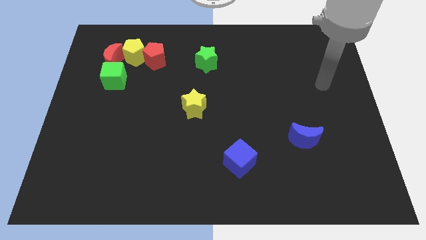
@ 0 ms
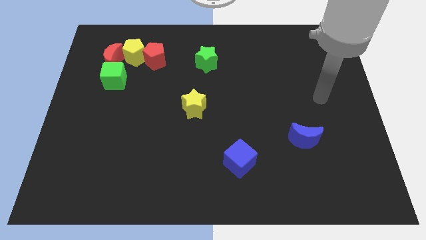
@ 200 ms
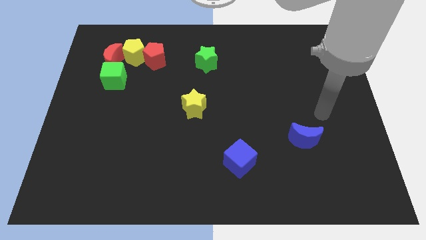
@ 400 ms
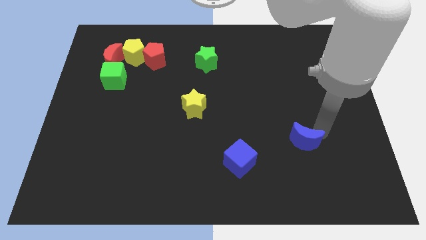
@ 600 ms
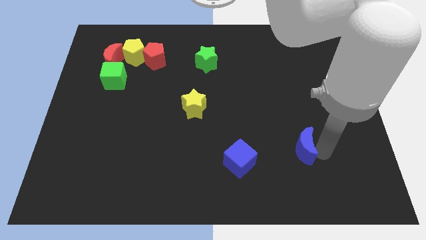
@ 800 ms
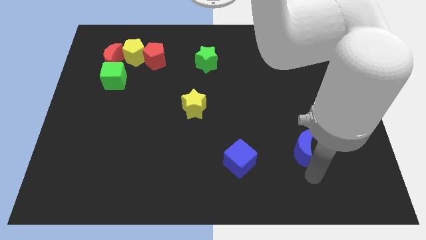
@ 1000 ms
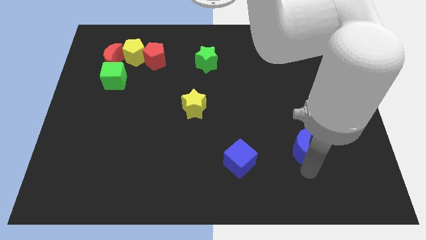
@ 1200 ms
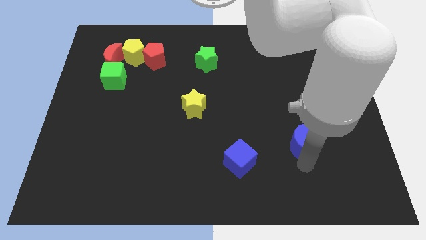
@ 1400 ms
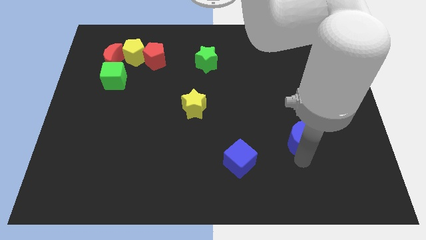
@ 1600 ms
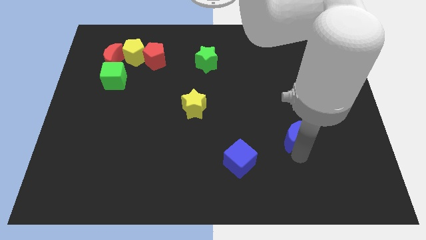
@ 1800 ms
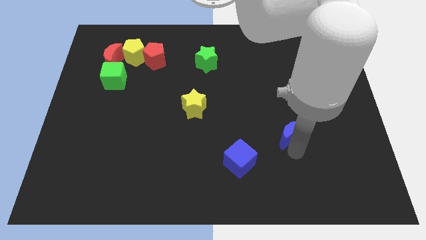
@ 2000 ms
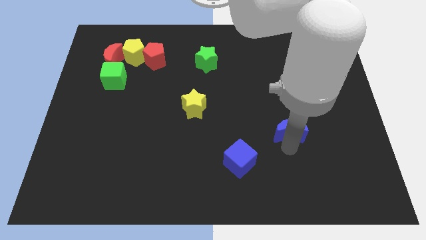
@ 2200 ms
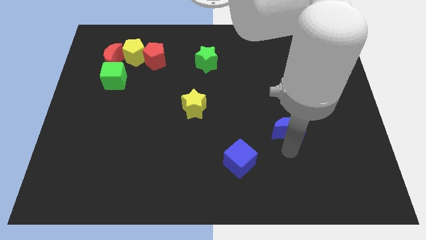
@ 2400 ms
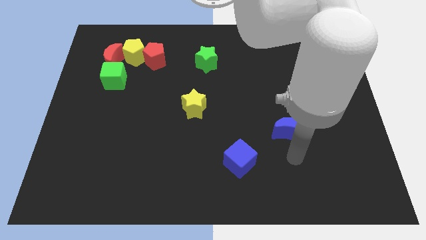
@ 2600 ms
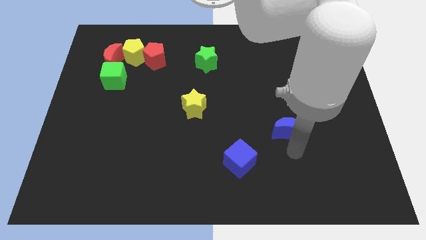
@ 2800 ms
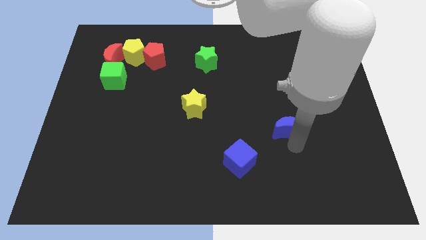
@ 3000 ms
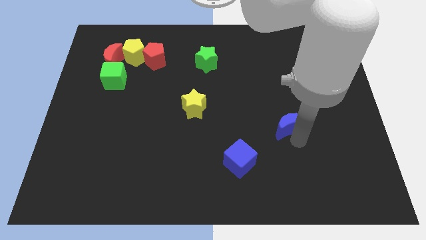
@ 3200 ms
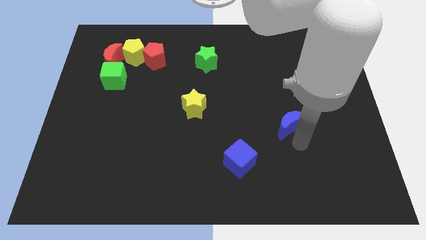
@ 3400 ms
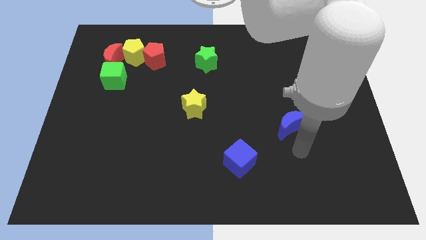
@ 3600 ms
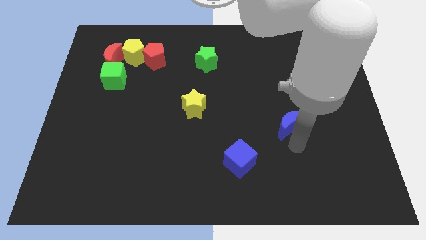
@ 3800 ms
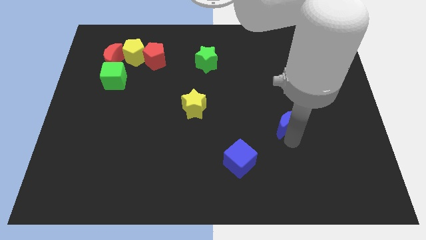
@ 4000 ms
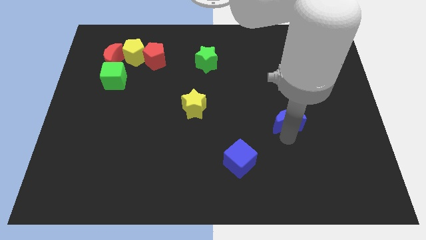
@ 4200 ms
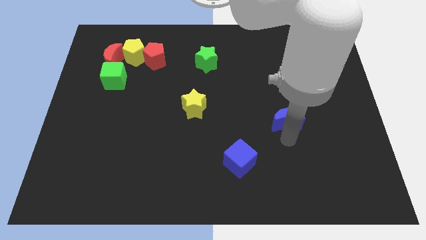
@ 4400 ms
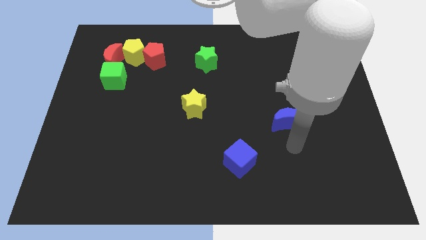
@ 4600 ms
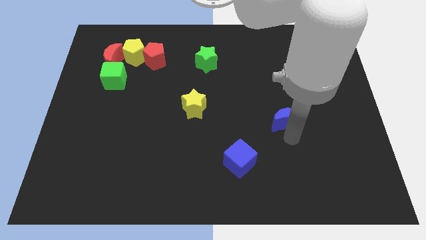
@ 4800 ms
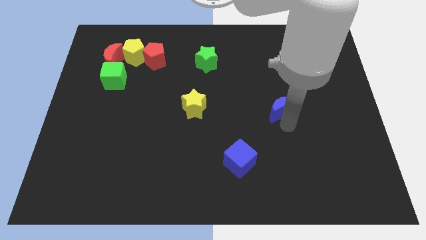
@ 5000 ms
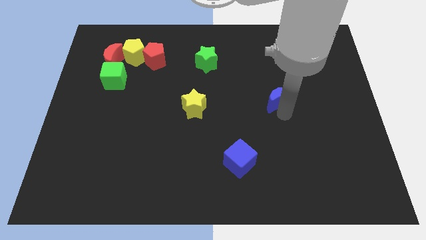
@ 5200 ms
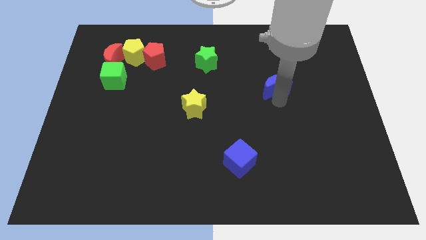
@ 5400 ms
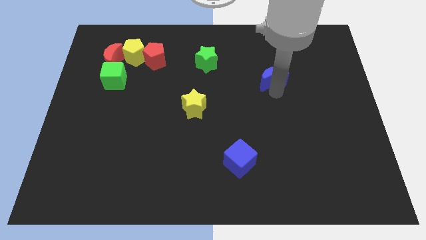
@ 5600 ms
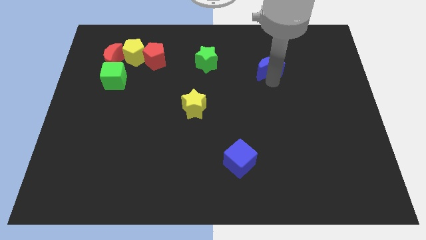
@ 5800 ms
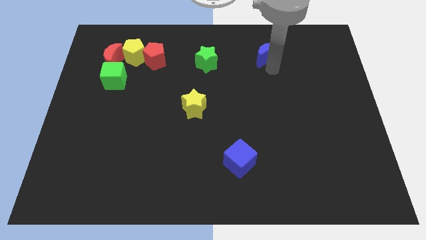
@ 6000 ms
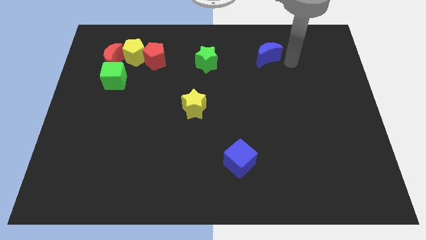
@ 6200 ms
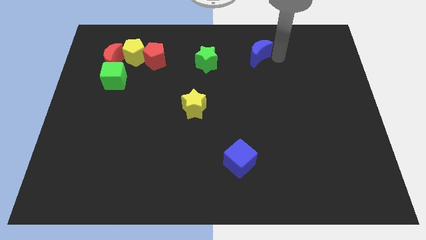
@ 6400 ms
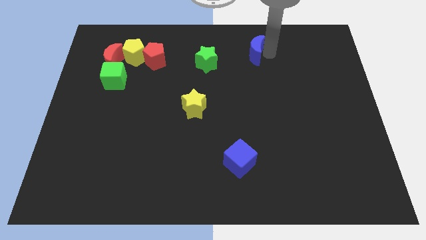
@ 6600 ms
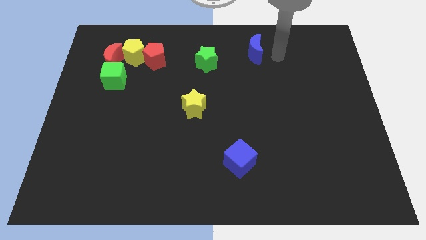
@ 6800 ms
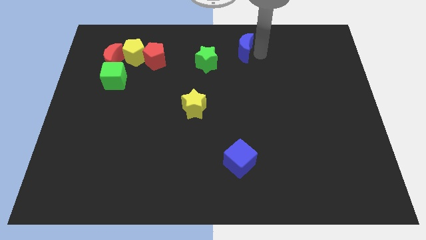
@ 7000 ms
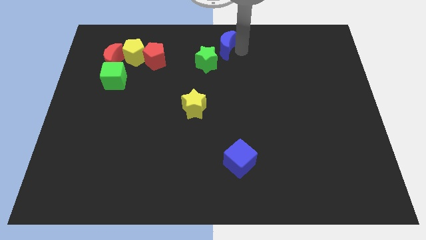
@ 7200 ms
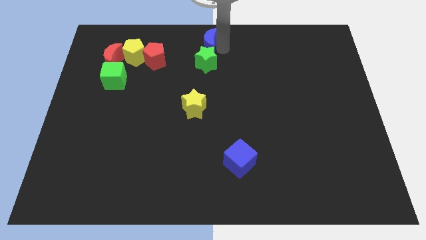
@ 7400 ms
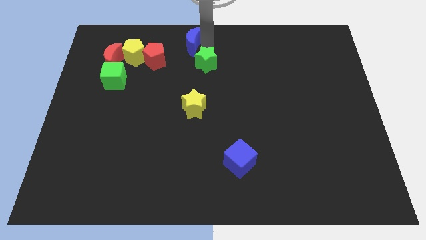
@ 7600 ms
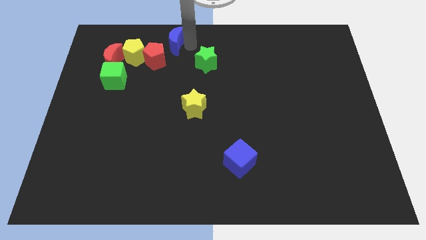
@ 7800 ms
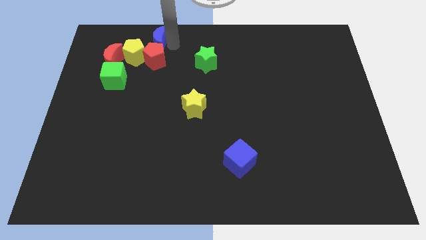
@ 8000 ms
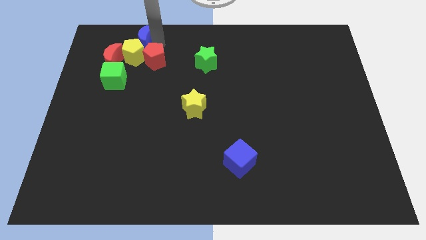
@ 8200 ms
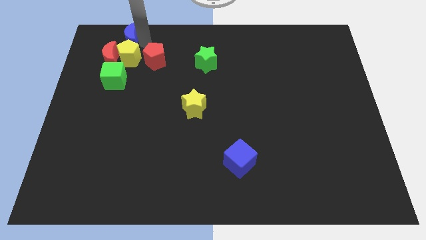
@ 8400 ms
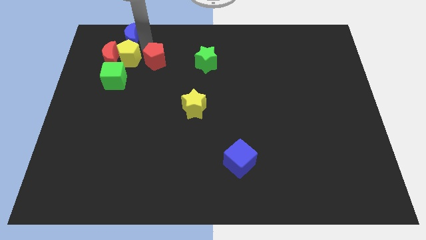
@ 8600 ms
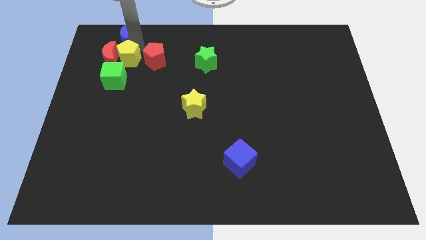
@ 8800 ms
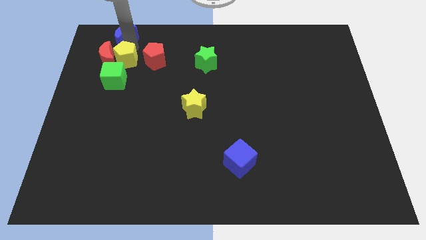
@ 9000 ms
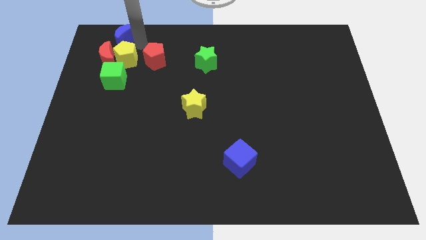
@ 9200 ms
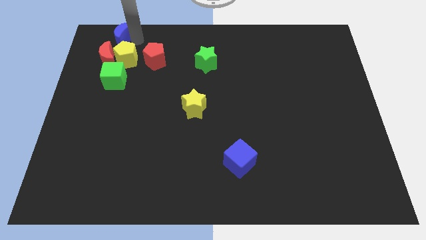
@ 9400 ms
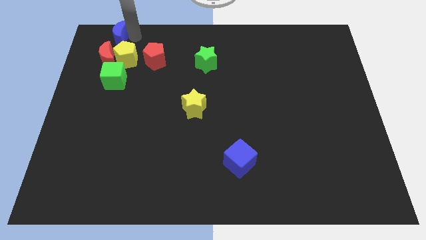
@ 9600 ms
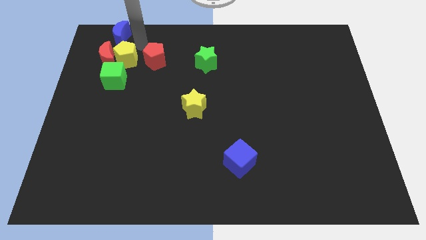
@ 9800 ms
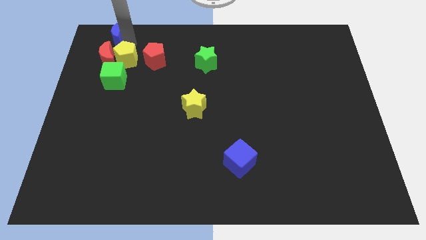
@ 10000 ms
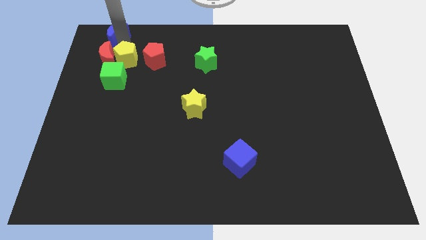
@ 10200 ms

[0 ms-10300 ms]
slide the blue moon to the upper left corner

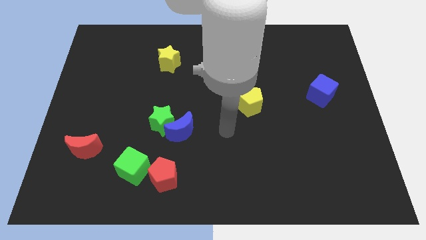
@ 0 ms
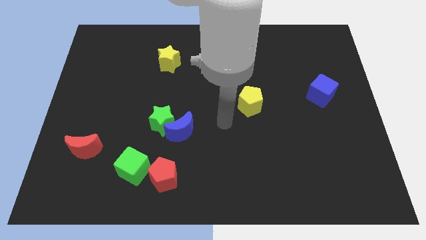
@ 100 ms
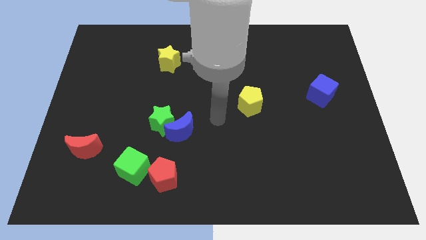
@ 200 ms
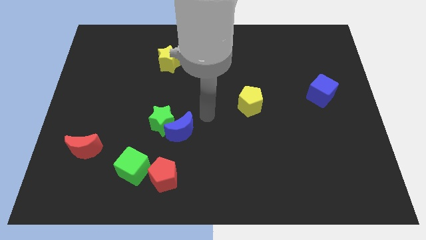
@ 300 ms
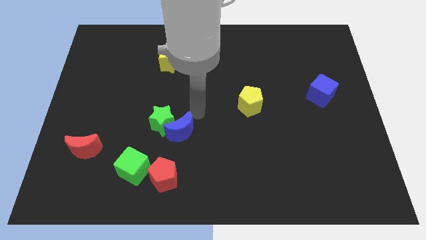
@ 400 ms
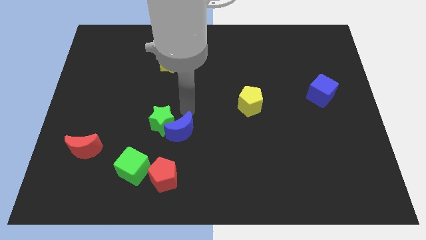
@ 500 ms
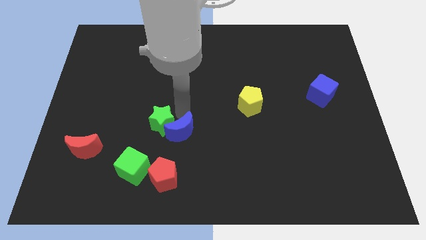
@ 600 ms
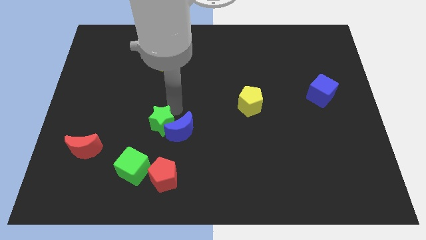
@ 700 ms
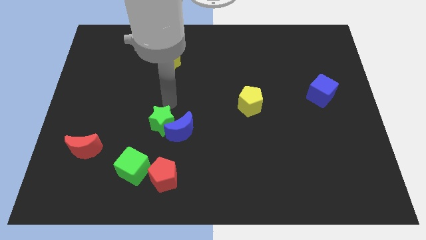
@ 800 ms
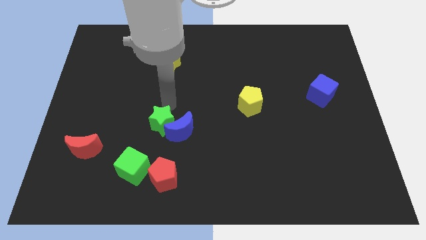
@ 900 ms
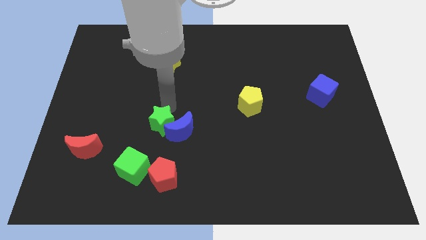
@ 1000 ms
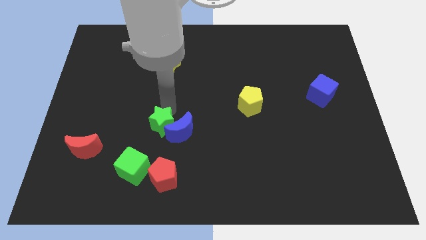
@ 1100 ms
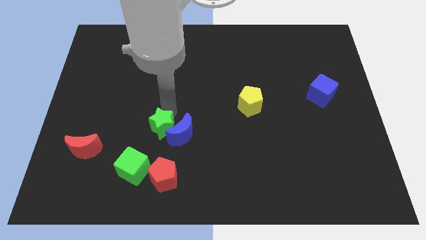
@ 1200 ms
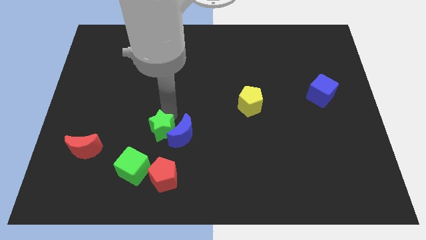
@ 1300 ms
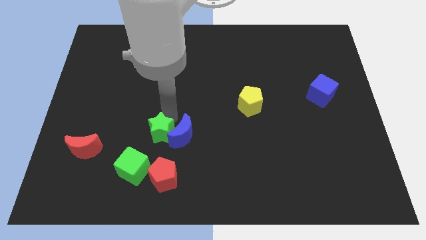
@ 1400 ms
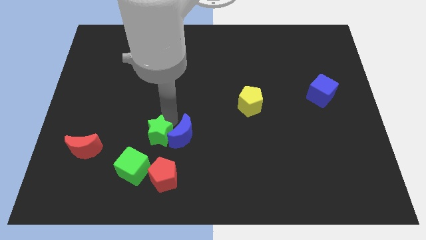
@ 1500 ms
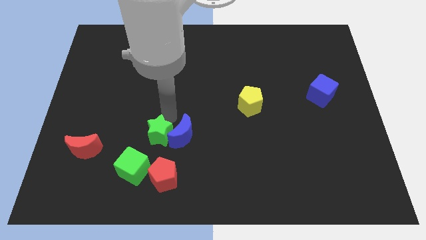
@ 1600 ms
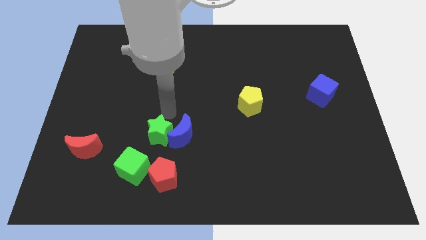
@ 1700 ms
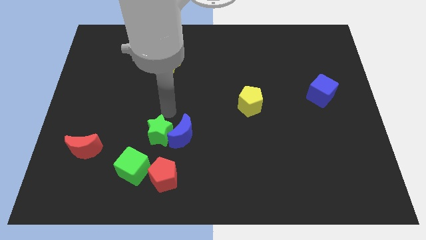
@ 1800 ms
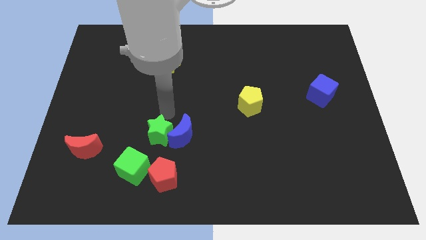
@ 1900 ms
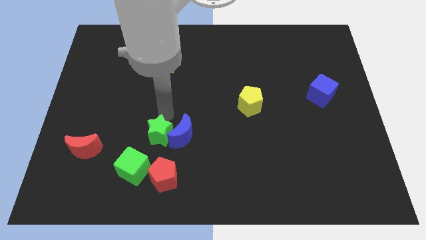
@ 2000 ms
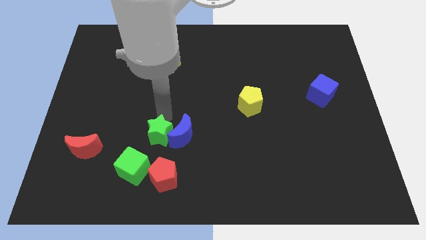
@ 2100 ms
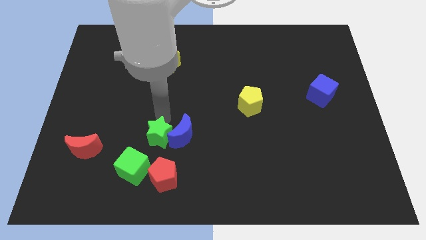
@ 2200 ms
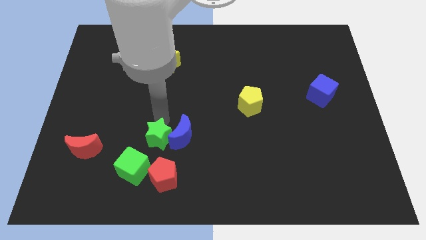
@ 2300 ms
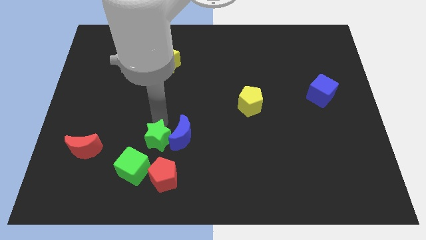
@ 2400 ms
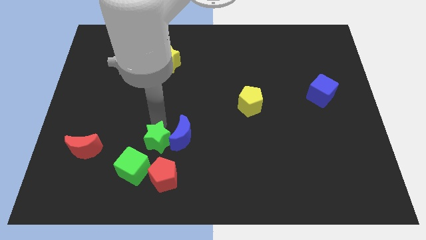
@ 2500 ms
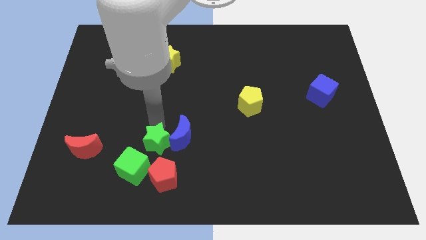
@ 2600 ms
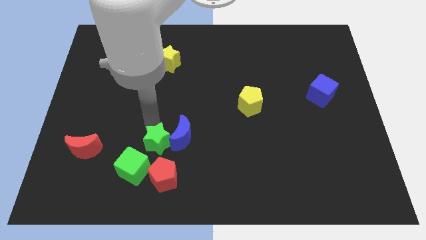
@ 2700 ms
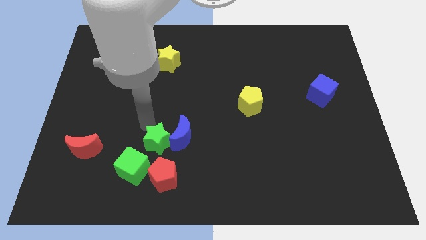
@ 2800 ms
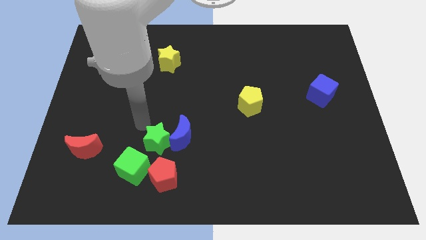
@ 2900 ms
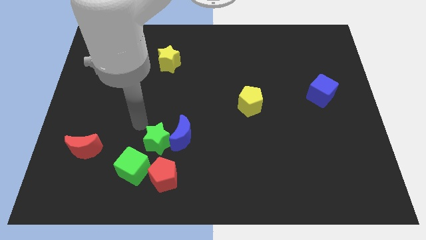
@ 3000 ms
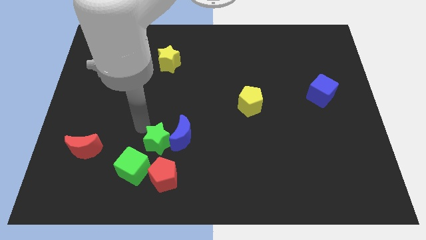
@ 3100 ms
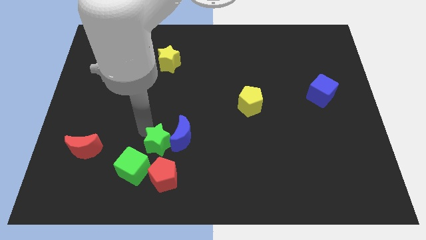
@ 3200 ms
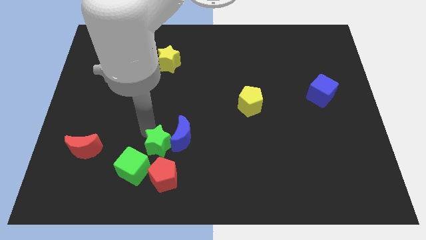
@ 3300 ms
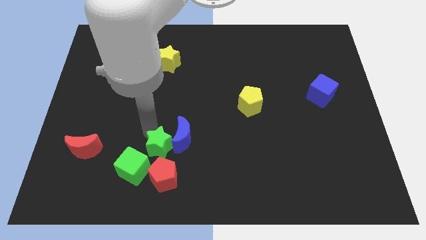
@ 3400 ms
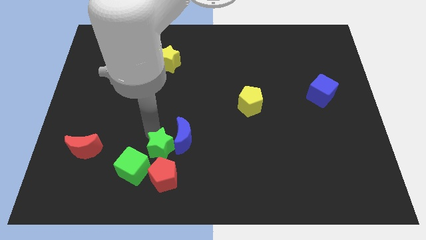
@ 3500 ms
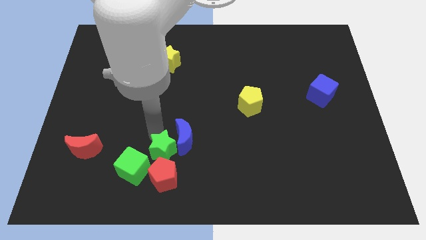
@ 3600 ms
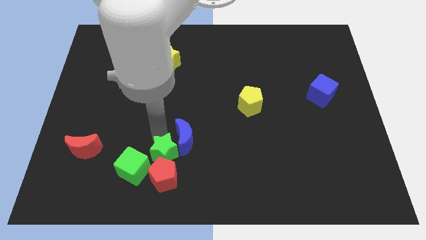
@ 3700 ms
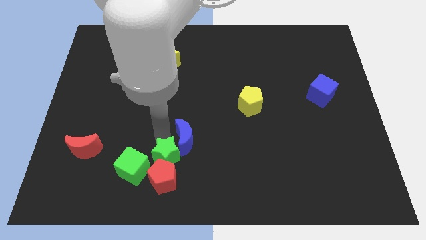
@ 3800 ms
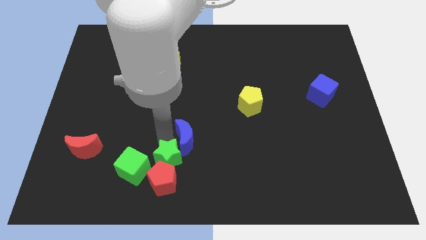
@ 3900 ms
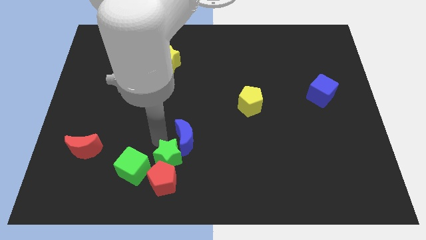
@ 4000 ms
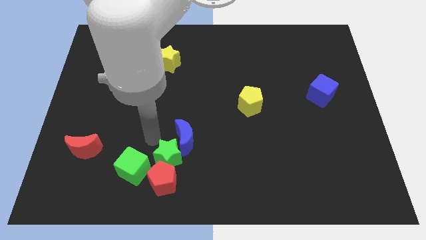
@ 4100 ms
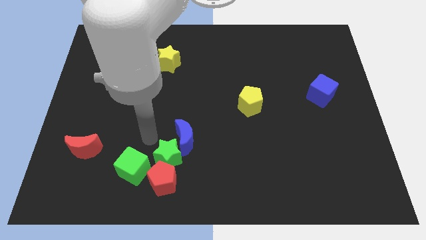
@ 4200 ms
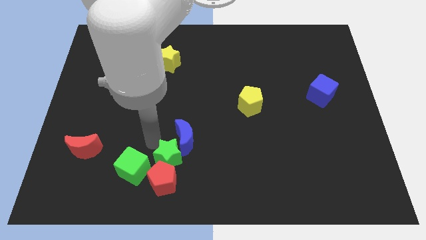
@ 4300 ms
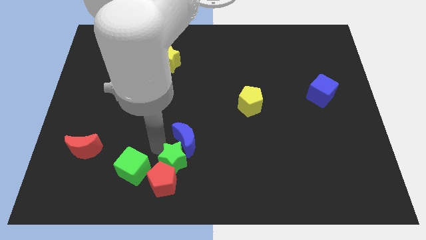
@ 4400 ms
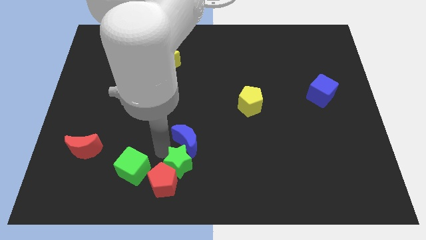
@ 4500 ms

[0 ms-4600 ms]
put the green star to the bottom
